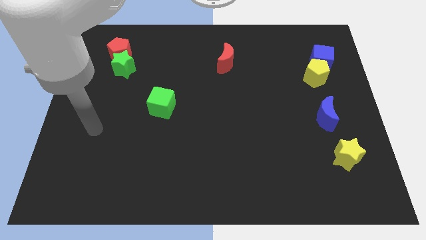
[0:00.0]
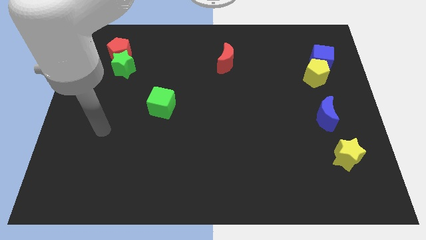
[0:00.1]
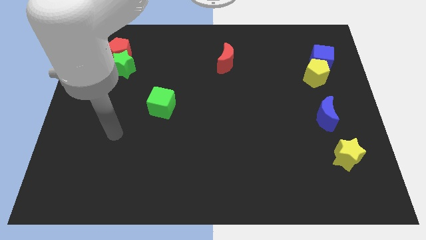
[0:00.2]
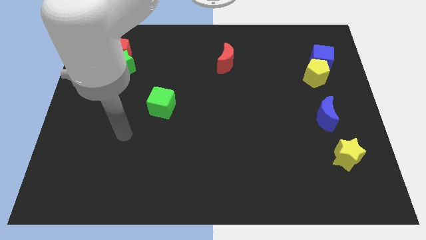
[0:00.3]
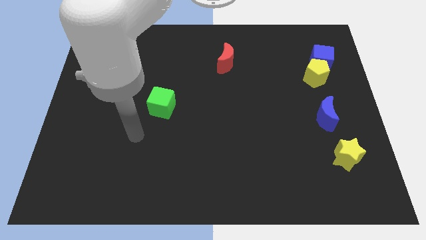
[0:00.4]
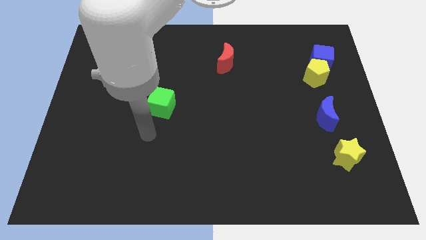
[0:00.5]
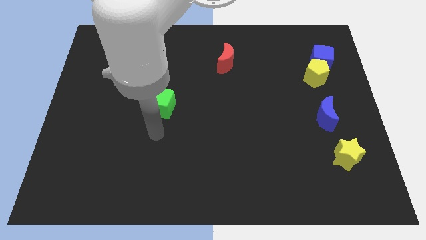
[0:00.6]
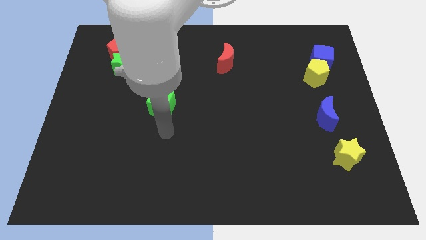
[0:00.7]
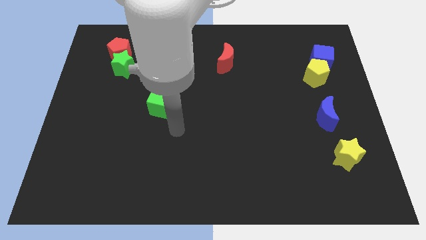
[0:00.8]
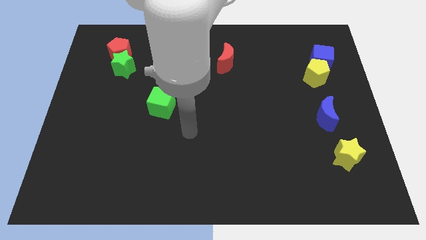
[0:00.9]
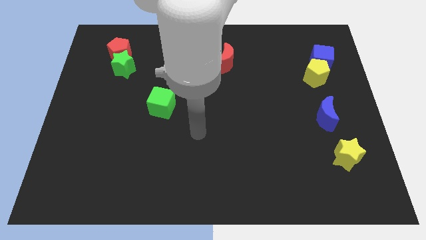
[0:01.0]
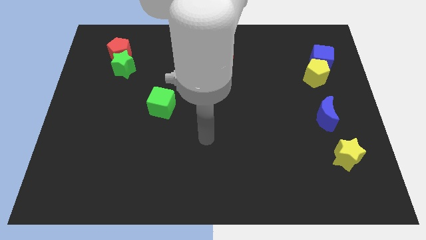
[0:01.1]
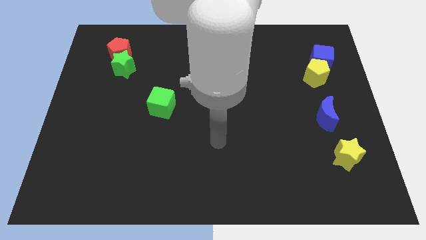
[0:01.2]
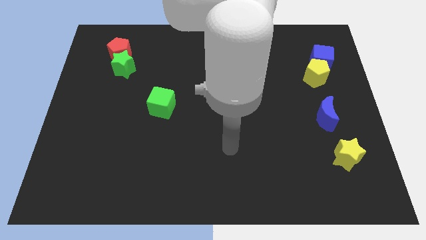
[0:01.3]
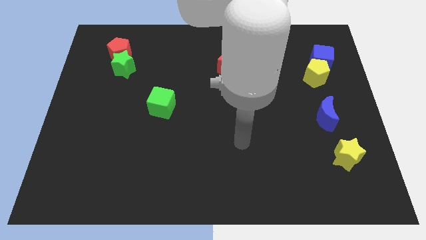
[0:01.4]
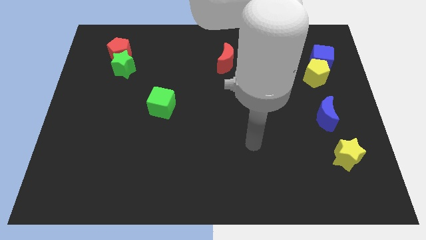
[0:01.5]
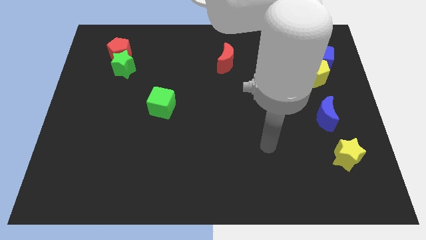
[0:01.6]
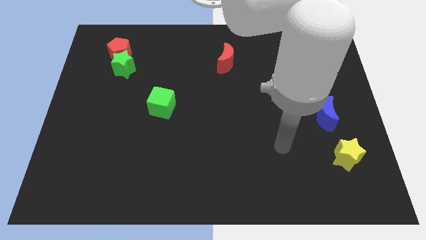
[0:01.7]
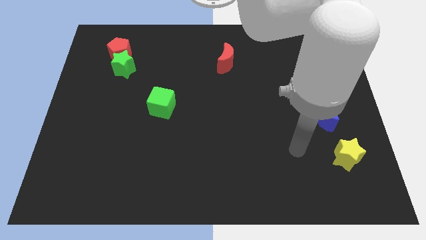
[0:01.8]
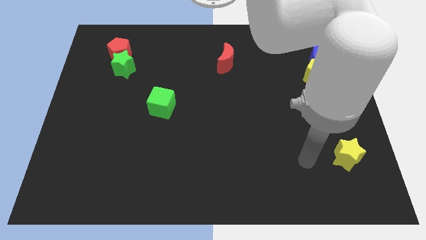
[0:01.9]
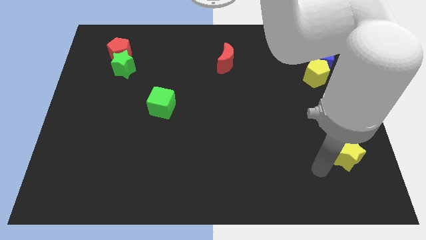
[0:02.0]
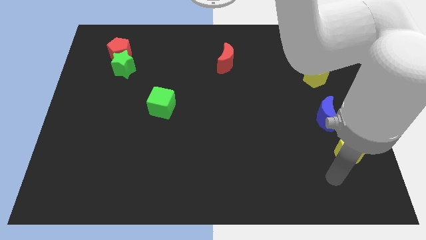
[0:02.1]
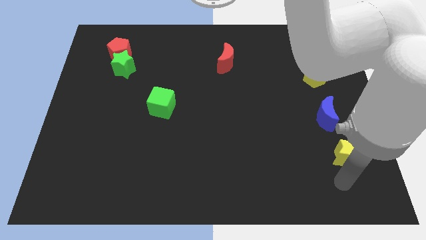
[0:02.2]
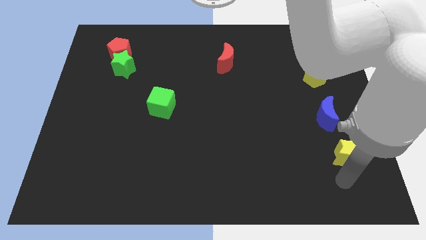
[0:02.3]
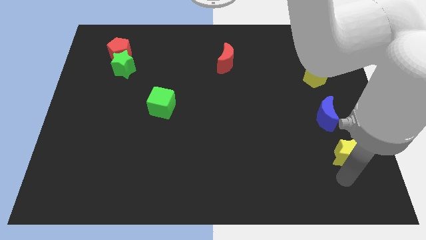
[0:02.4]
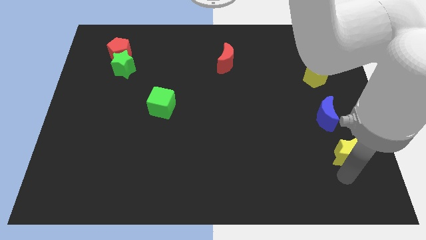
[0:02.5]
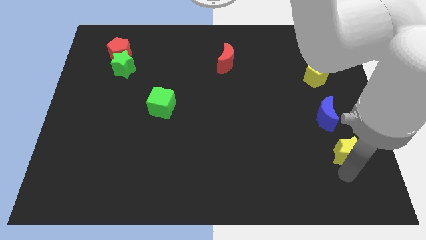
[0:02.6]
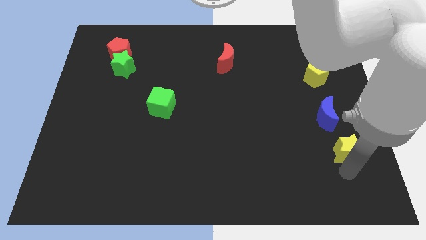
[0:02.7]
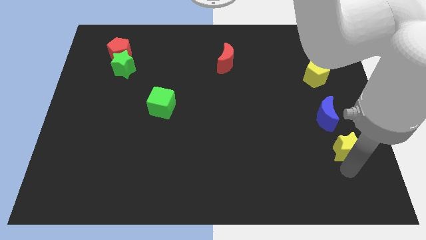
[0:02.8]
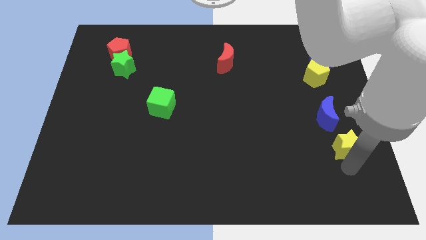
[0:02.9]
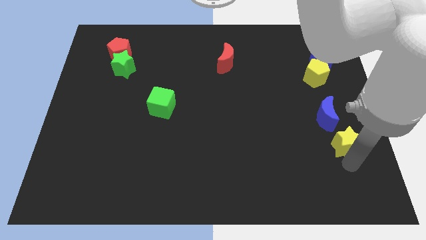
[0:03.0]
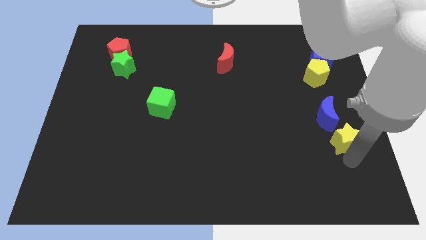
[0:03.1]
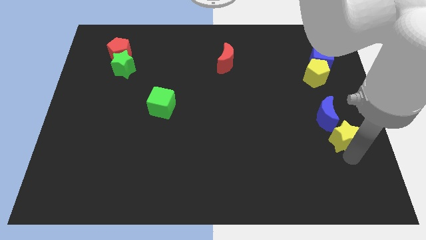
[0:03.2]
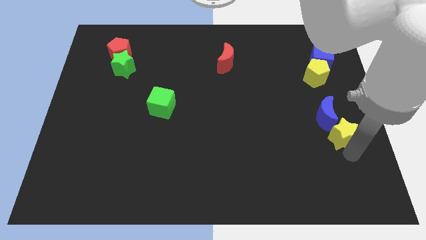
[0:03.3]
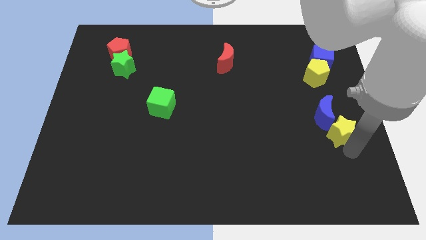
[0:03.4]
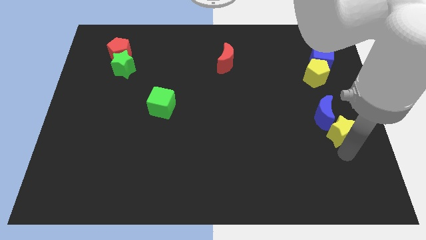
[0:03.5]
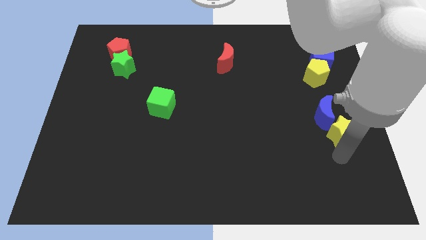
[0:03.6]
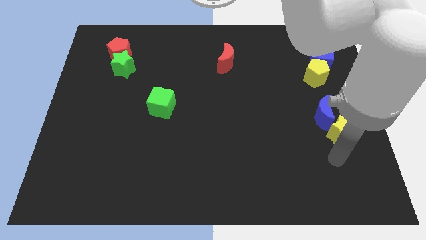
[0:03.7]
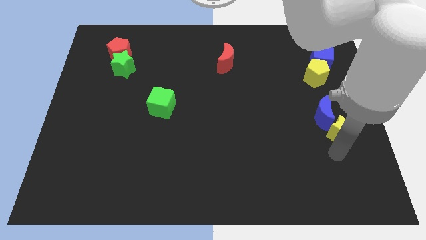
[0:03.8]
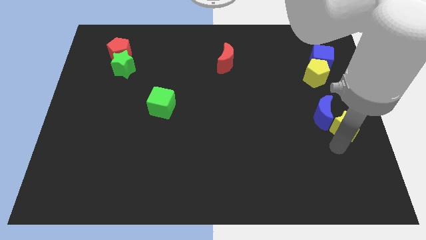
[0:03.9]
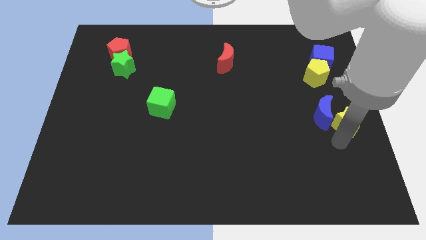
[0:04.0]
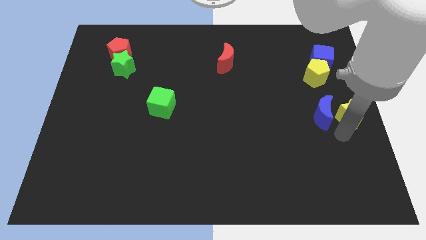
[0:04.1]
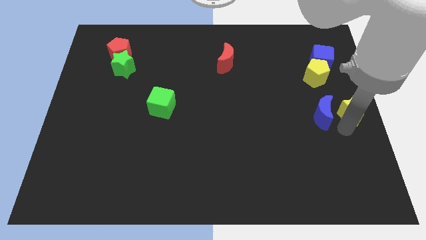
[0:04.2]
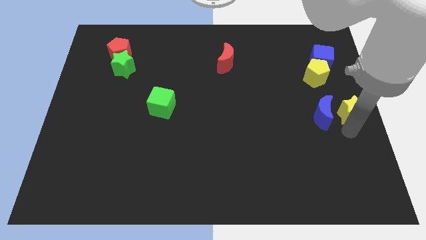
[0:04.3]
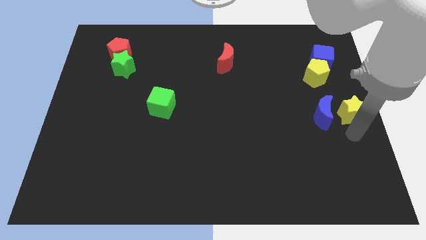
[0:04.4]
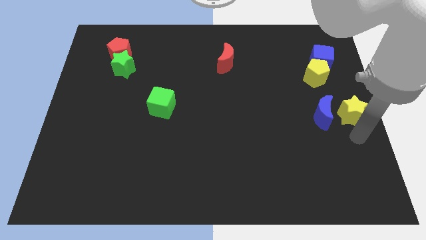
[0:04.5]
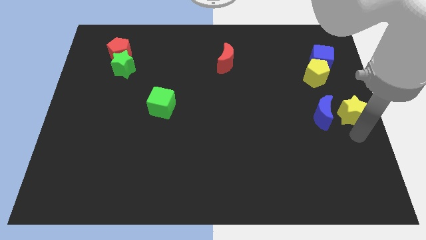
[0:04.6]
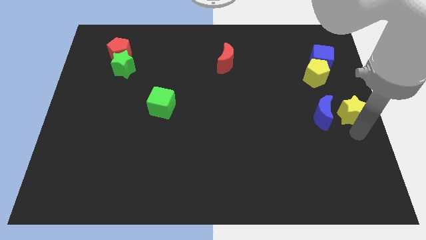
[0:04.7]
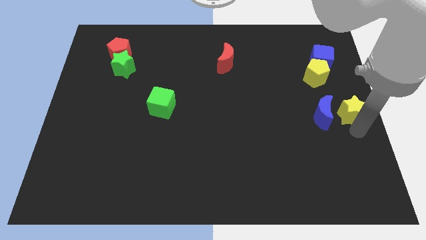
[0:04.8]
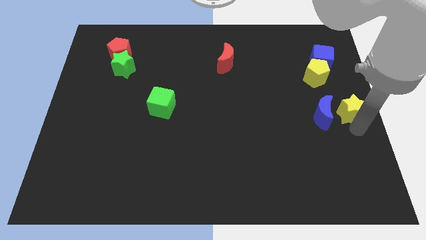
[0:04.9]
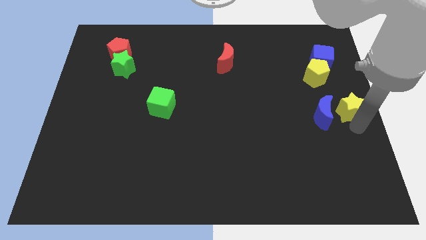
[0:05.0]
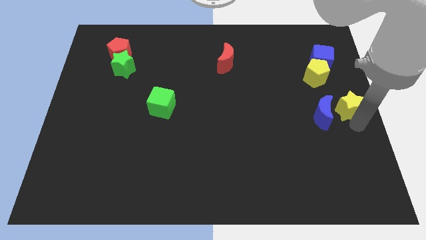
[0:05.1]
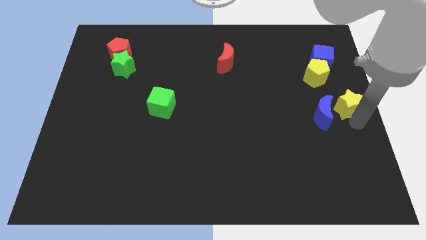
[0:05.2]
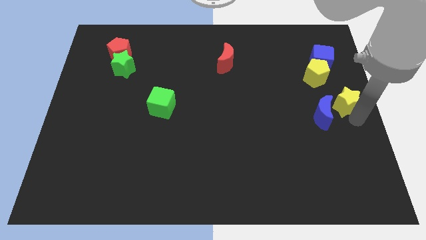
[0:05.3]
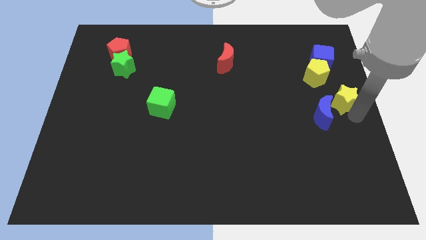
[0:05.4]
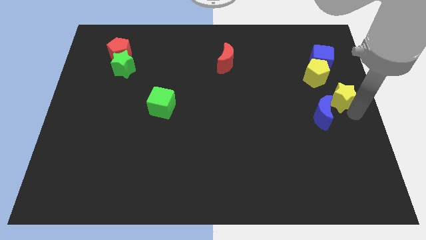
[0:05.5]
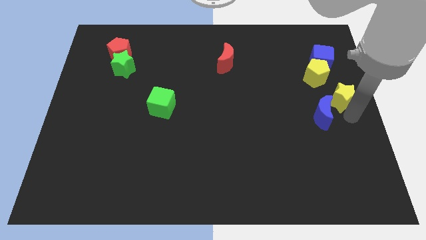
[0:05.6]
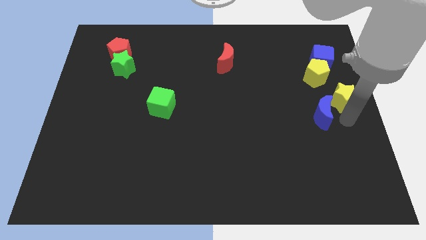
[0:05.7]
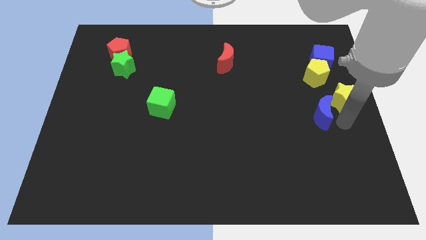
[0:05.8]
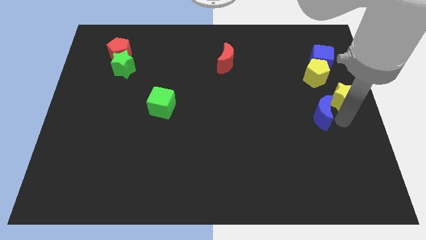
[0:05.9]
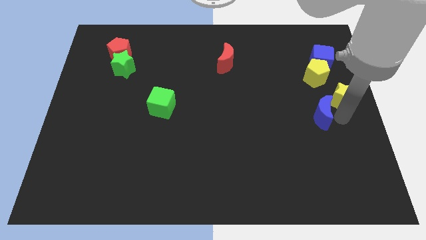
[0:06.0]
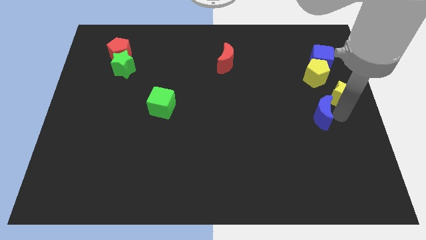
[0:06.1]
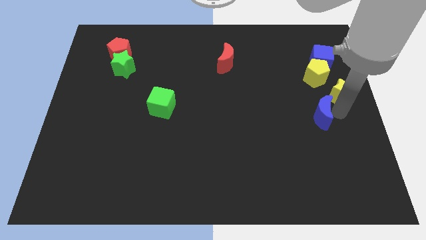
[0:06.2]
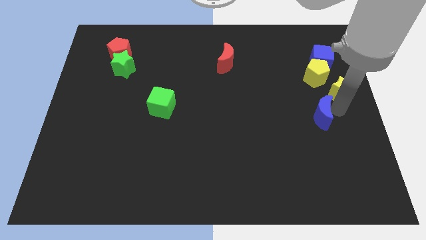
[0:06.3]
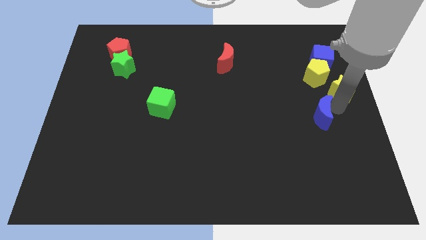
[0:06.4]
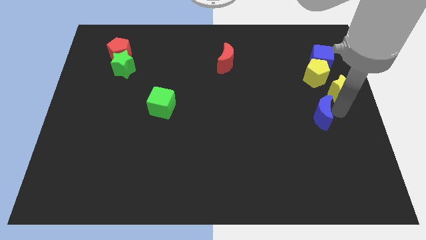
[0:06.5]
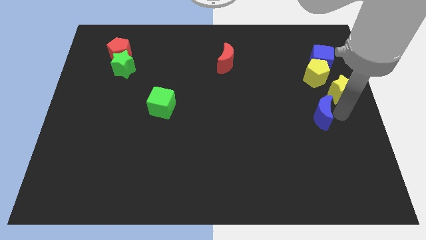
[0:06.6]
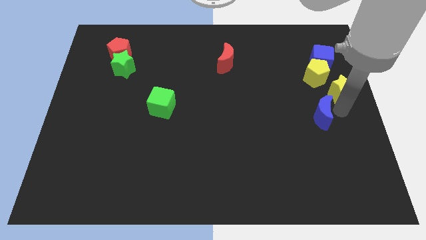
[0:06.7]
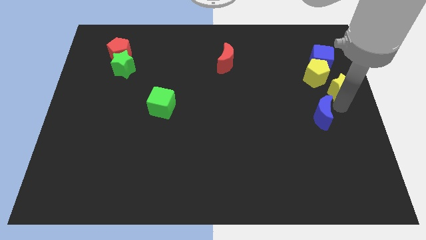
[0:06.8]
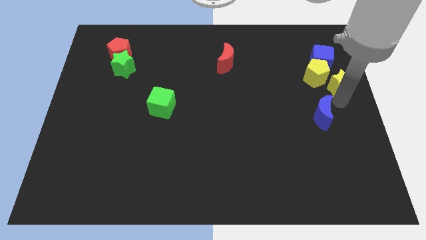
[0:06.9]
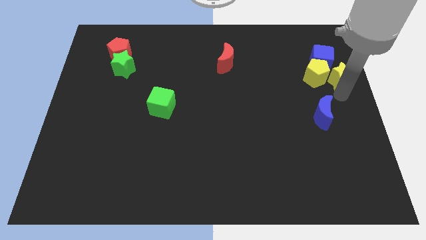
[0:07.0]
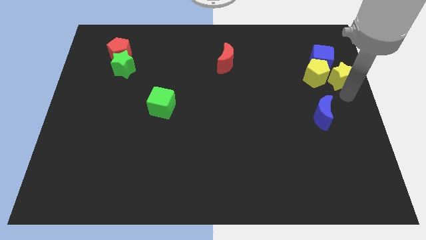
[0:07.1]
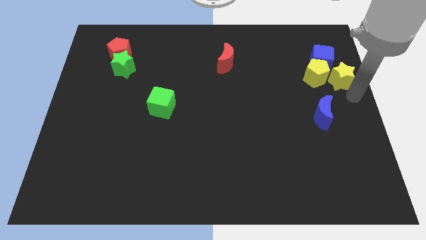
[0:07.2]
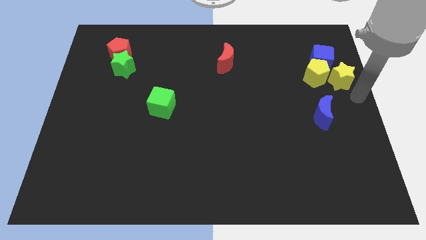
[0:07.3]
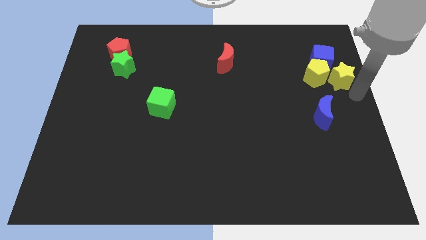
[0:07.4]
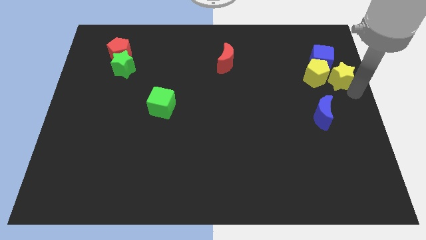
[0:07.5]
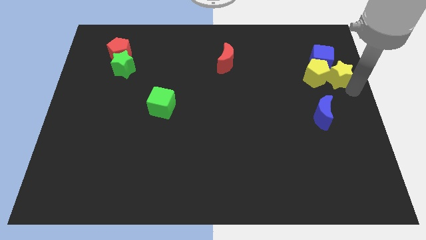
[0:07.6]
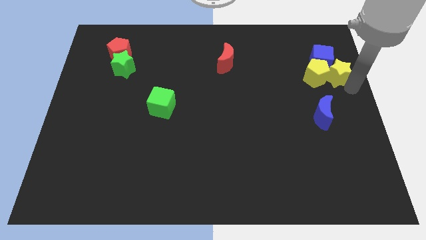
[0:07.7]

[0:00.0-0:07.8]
slide the yellow star to the blue cube
